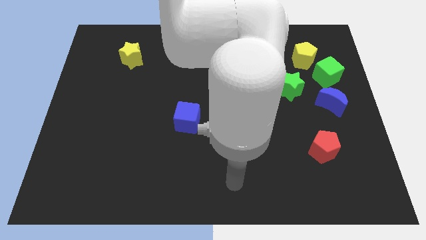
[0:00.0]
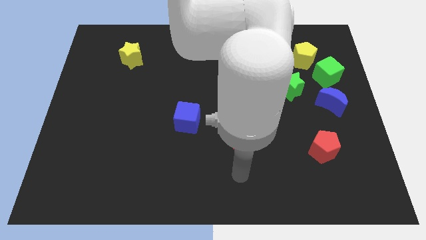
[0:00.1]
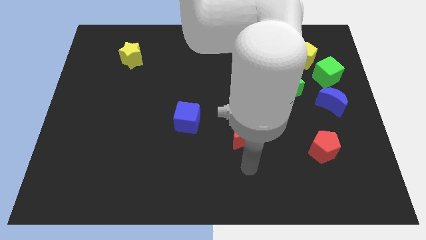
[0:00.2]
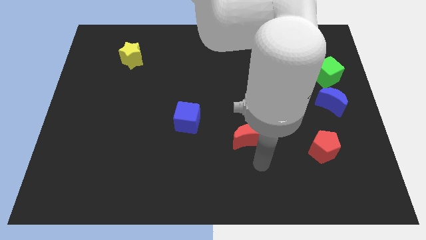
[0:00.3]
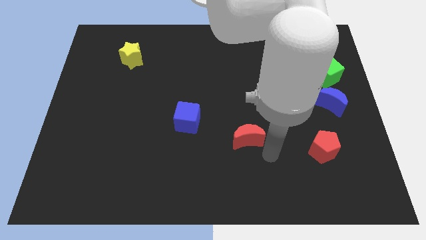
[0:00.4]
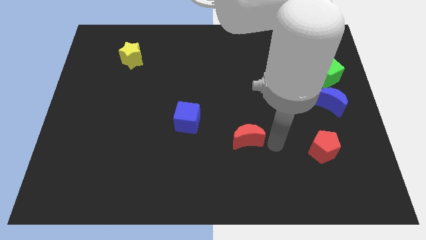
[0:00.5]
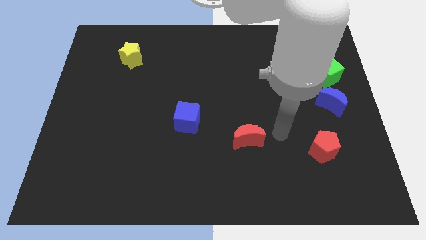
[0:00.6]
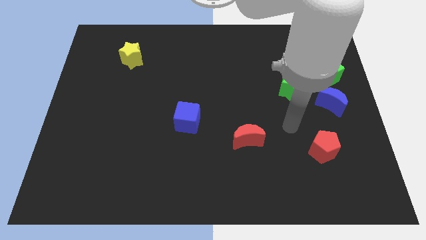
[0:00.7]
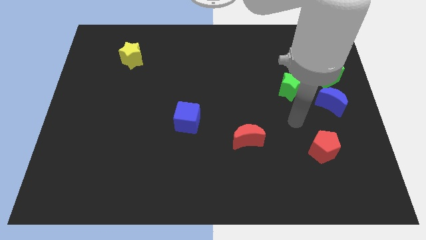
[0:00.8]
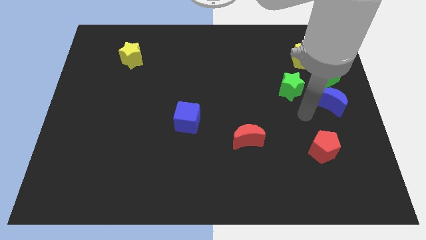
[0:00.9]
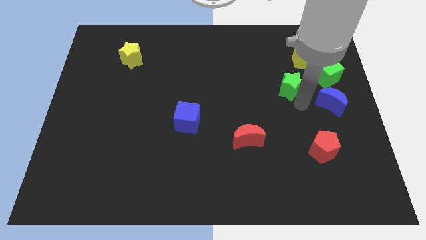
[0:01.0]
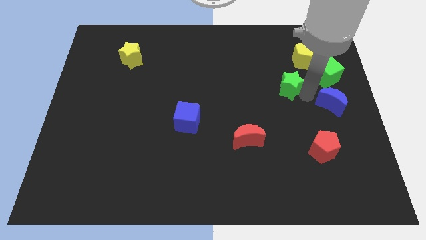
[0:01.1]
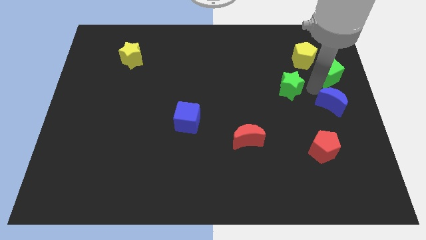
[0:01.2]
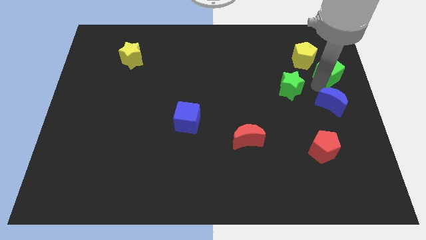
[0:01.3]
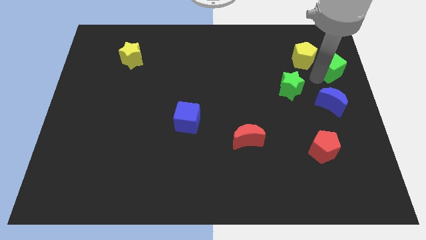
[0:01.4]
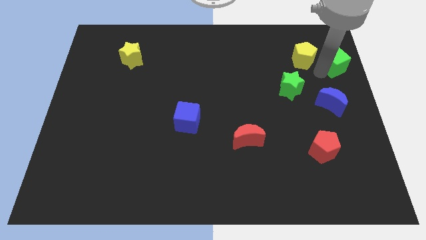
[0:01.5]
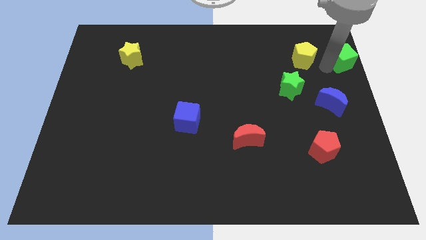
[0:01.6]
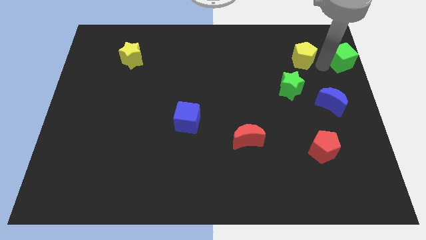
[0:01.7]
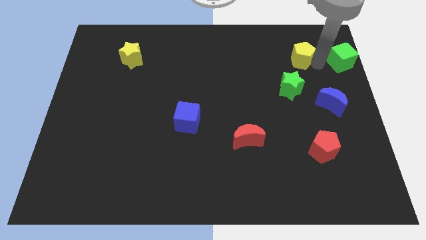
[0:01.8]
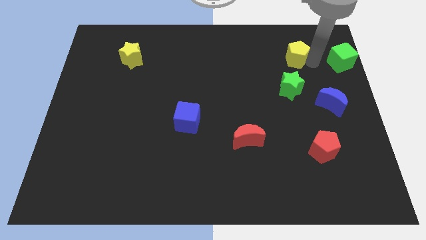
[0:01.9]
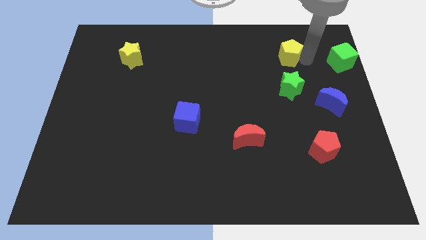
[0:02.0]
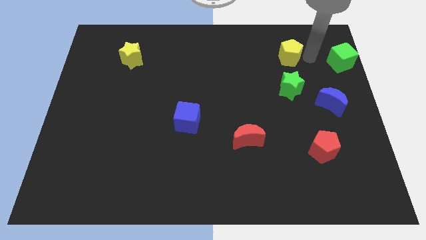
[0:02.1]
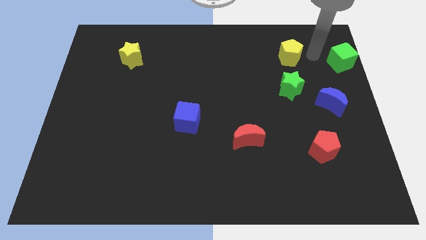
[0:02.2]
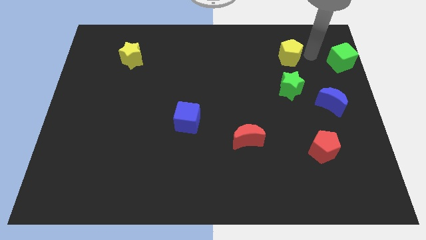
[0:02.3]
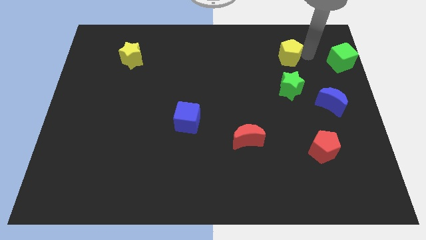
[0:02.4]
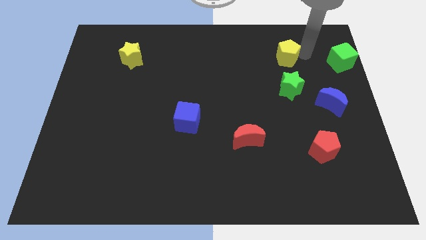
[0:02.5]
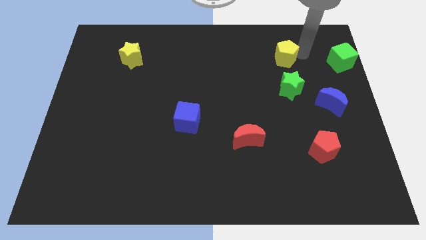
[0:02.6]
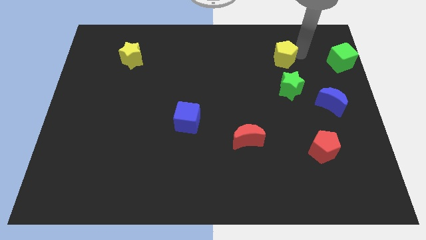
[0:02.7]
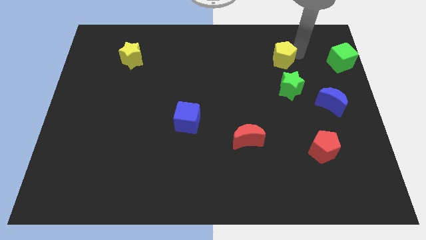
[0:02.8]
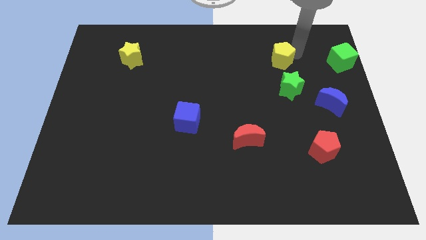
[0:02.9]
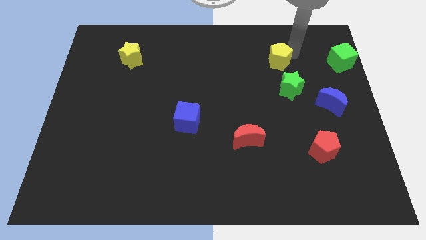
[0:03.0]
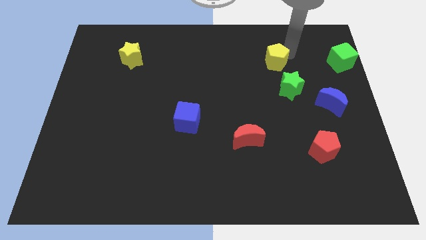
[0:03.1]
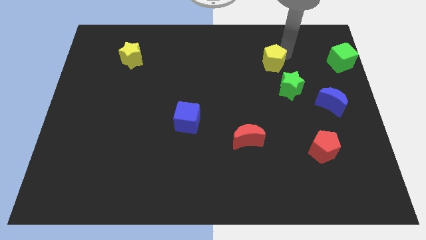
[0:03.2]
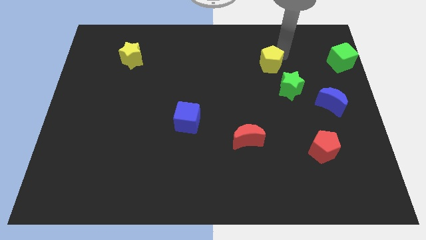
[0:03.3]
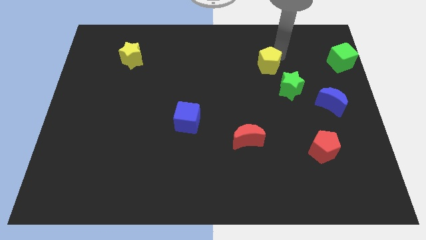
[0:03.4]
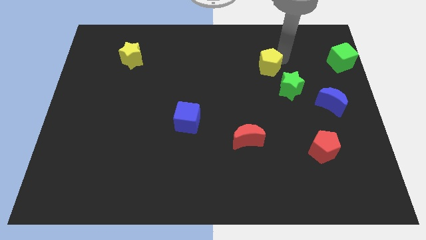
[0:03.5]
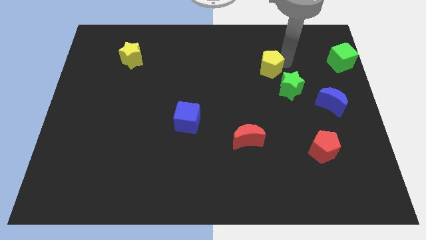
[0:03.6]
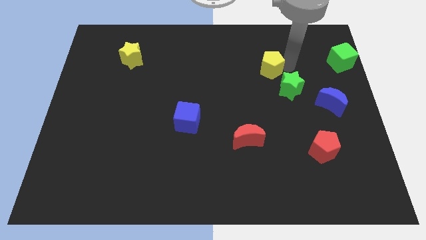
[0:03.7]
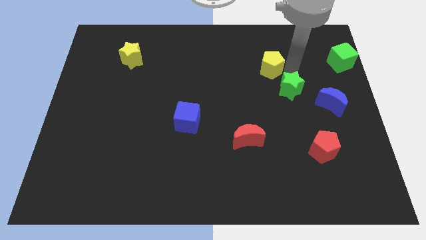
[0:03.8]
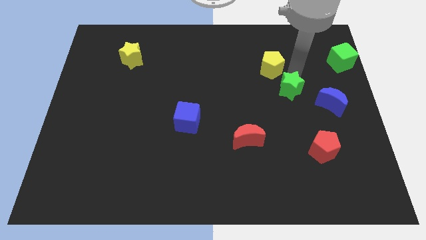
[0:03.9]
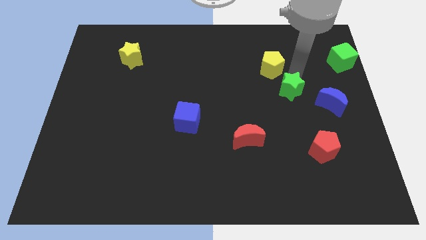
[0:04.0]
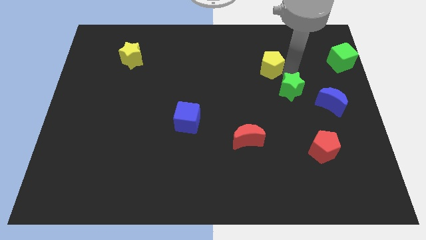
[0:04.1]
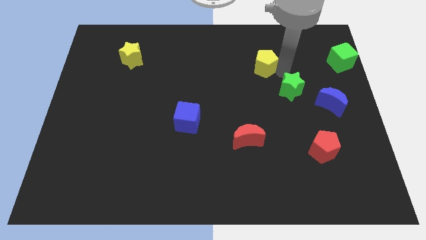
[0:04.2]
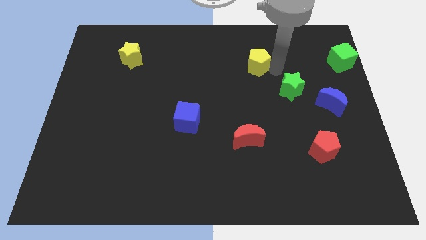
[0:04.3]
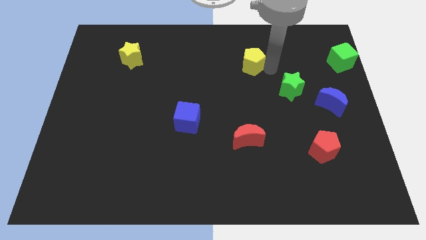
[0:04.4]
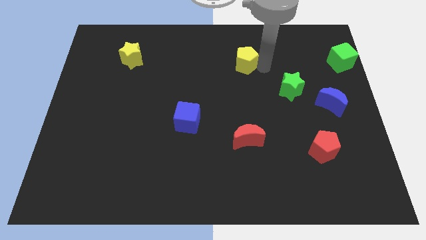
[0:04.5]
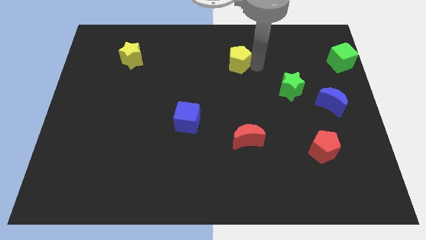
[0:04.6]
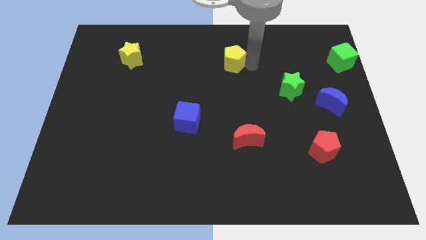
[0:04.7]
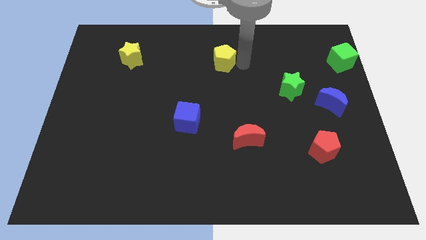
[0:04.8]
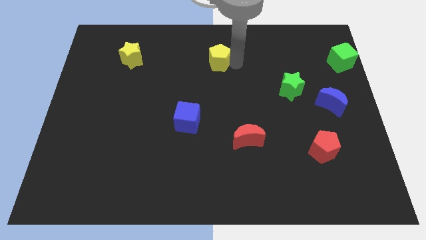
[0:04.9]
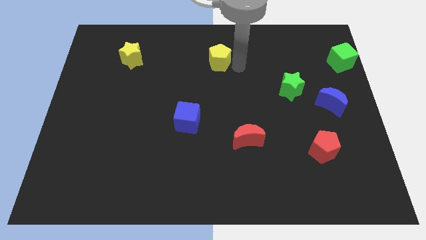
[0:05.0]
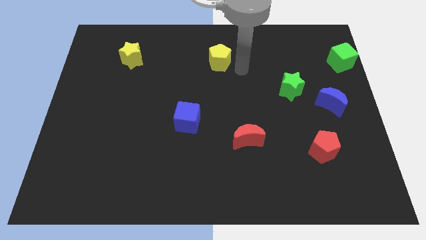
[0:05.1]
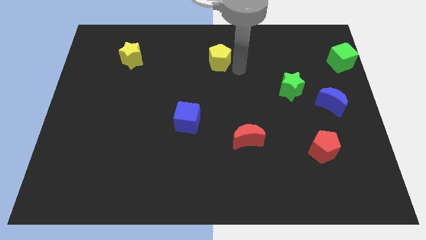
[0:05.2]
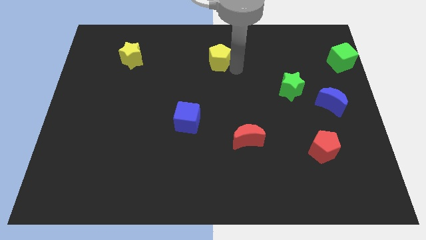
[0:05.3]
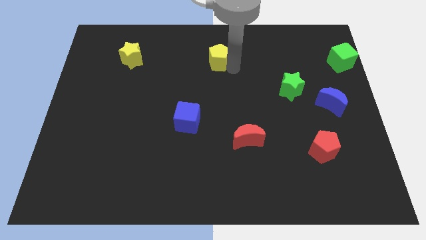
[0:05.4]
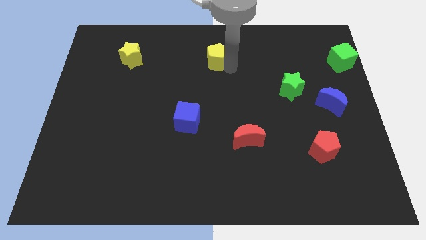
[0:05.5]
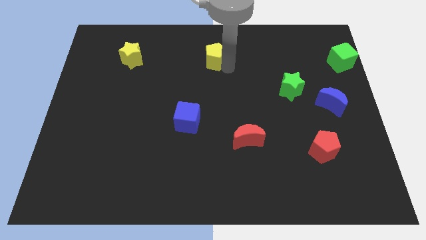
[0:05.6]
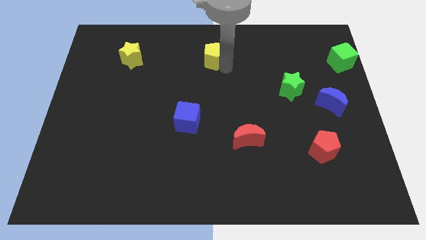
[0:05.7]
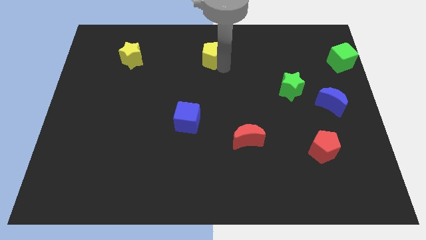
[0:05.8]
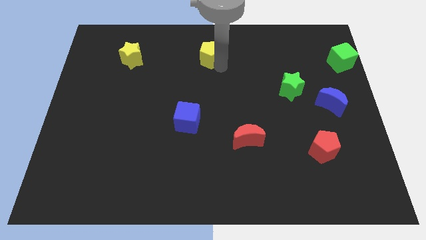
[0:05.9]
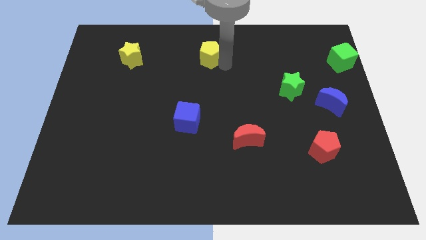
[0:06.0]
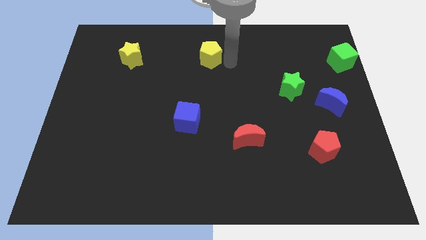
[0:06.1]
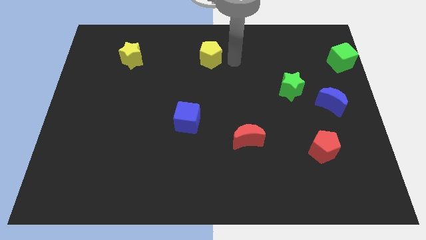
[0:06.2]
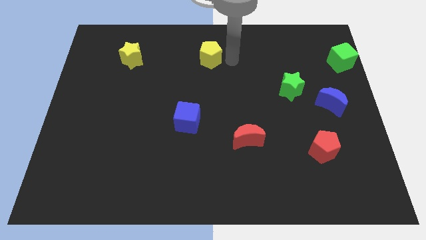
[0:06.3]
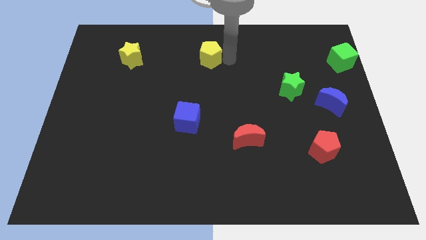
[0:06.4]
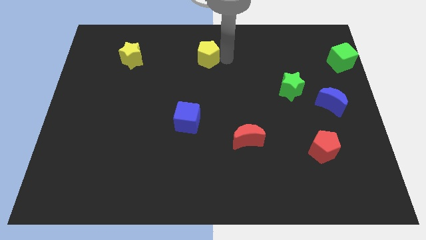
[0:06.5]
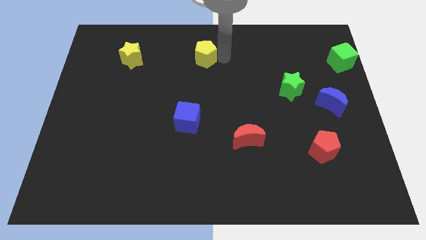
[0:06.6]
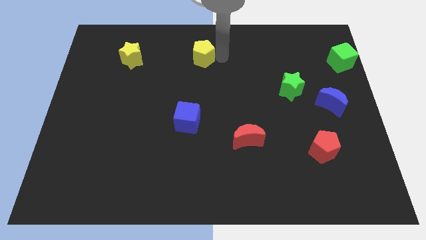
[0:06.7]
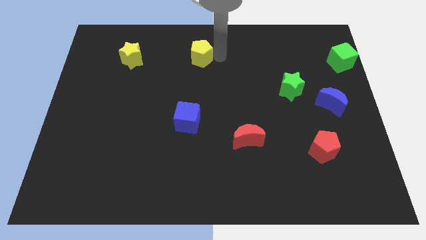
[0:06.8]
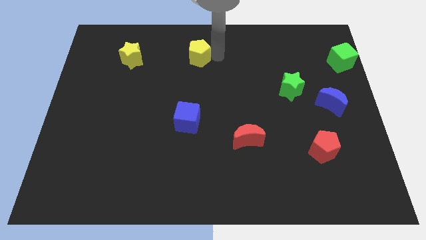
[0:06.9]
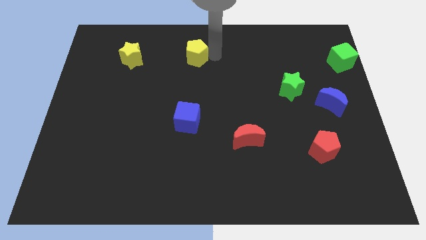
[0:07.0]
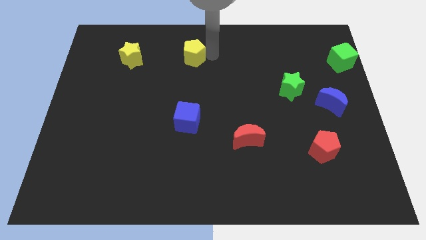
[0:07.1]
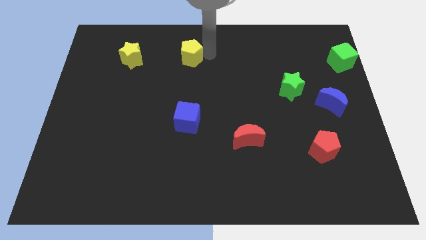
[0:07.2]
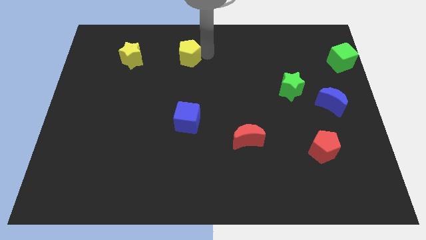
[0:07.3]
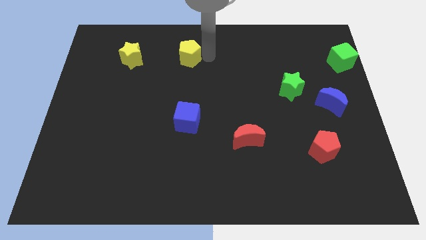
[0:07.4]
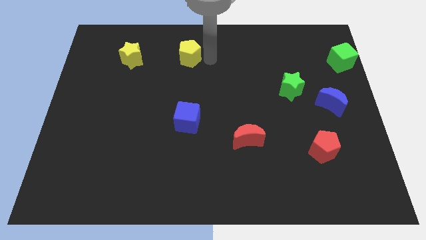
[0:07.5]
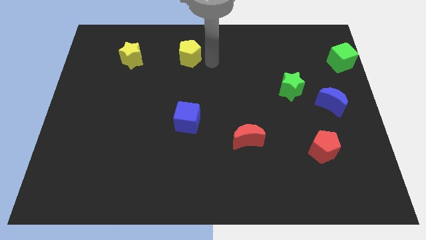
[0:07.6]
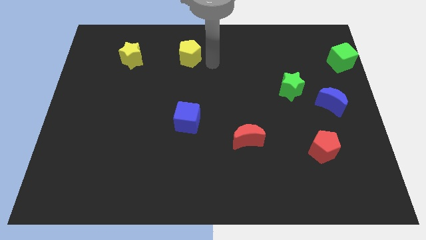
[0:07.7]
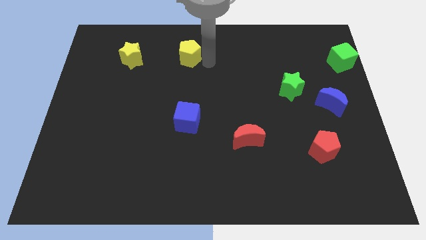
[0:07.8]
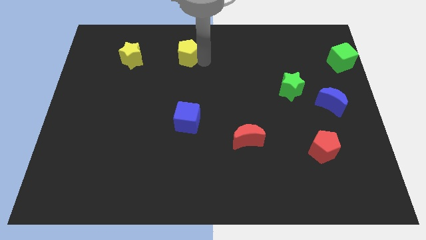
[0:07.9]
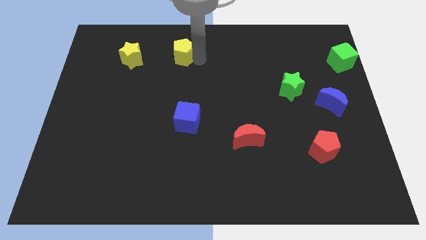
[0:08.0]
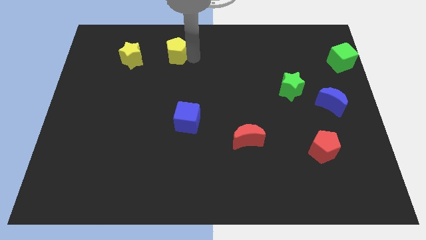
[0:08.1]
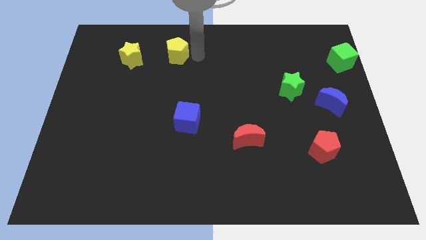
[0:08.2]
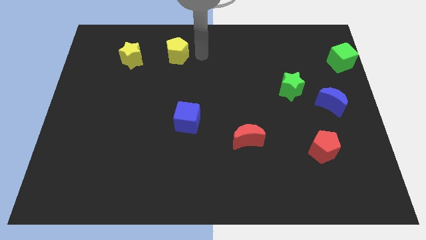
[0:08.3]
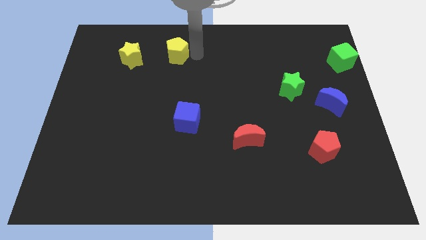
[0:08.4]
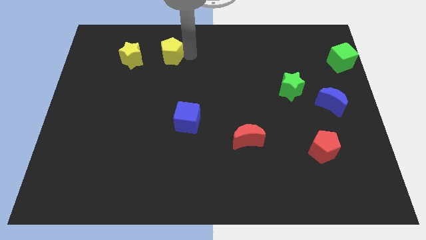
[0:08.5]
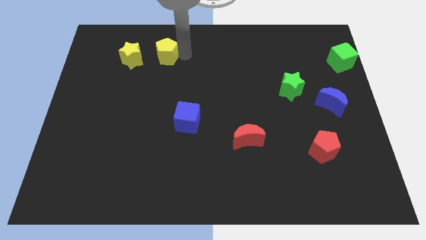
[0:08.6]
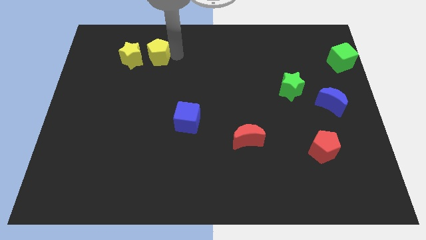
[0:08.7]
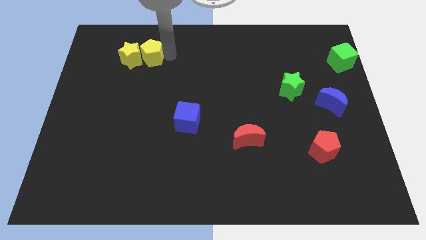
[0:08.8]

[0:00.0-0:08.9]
push the yellow pentagon to the yellow star
